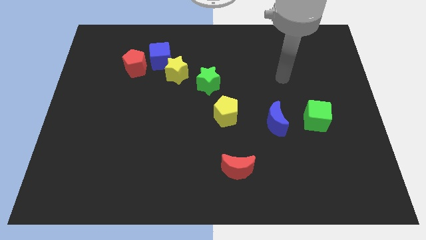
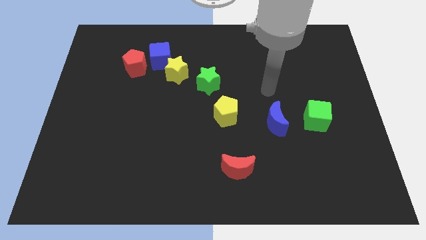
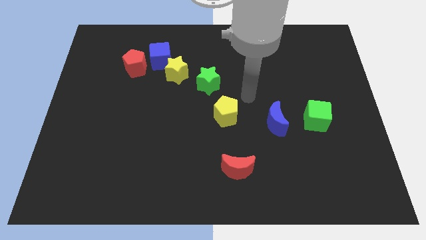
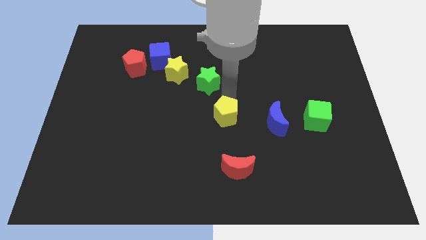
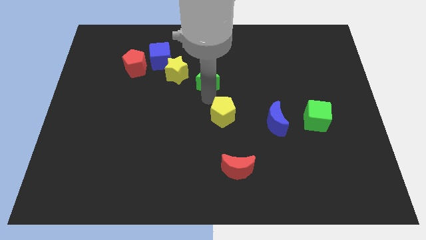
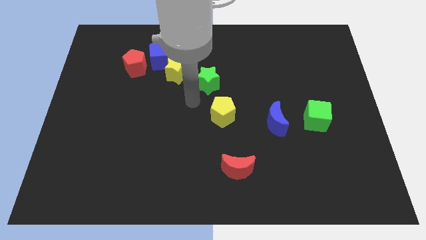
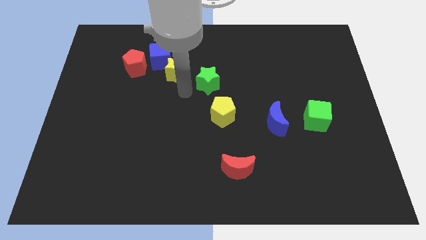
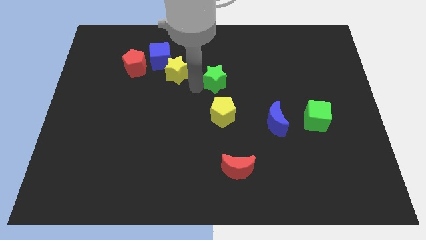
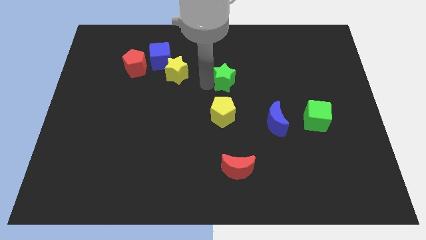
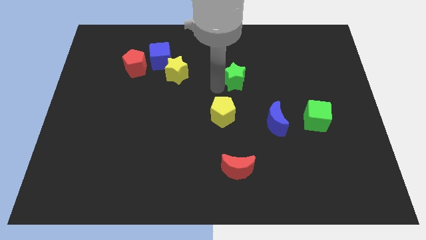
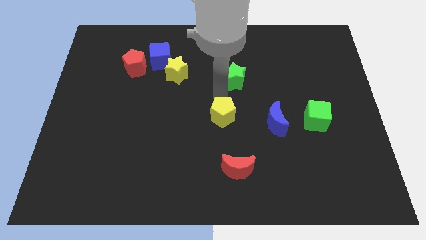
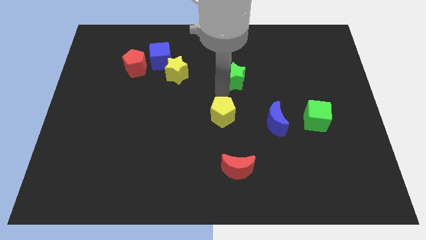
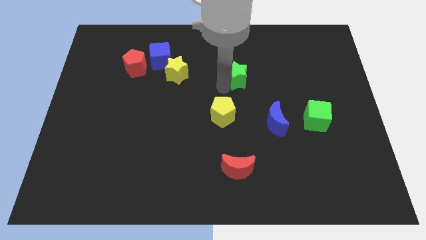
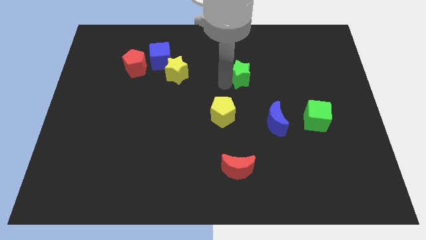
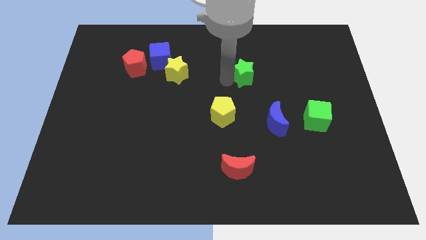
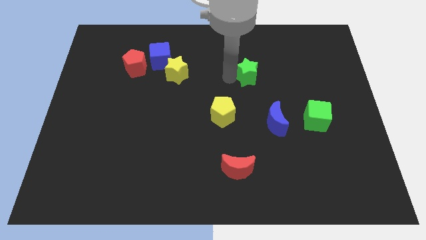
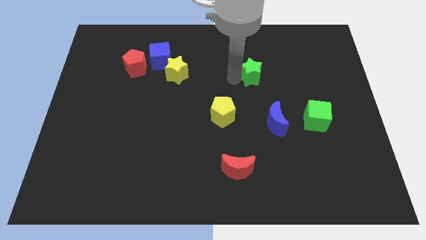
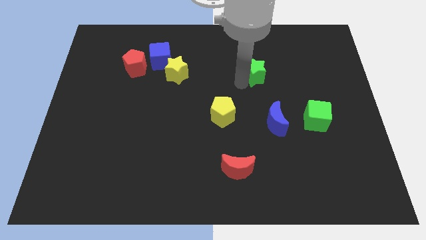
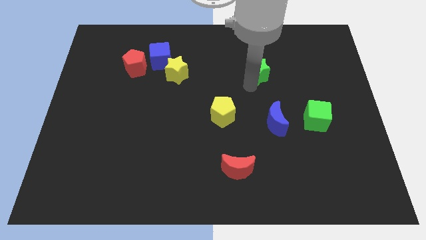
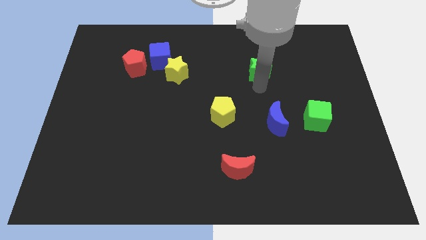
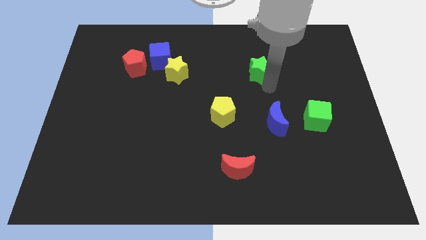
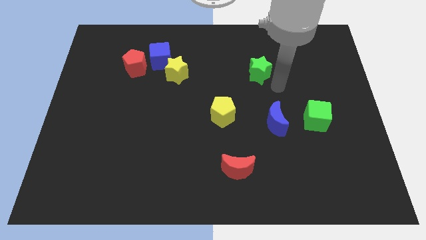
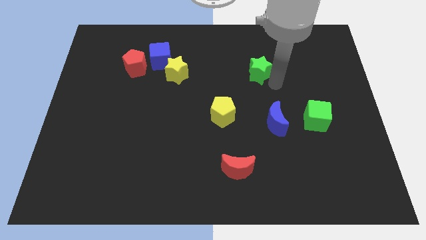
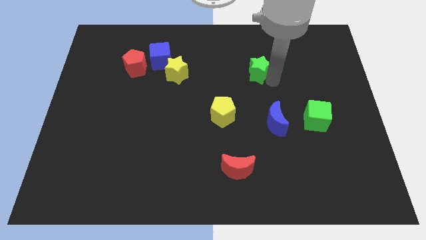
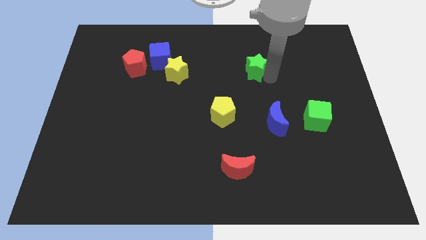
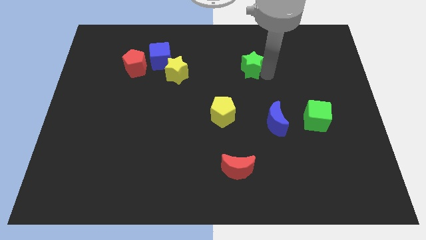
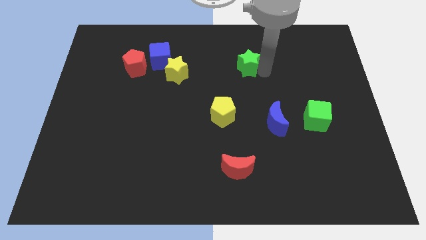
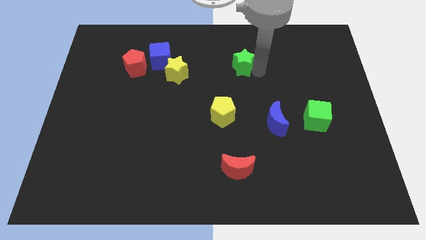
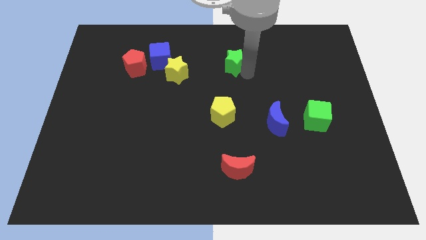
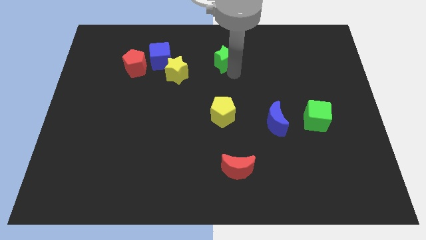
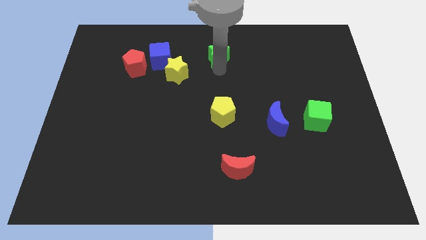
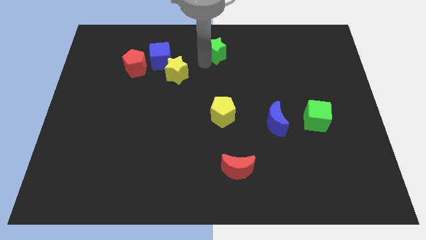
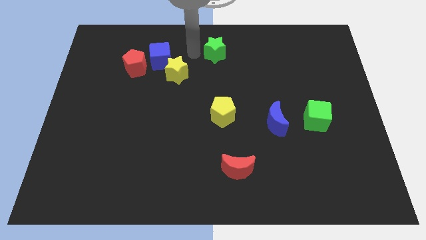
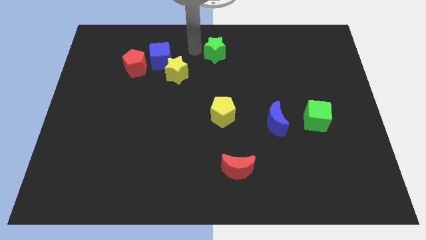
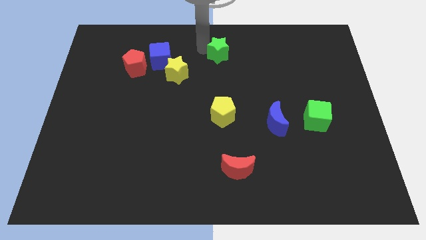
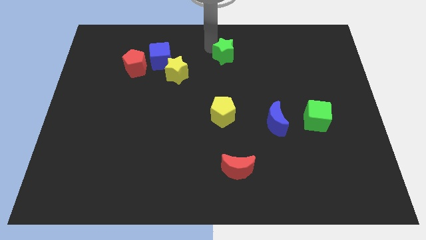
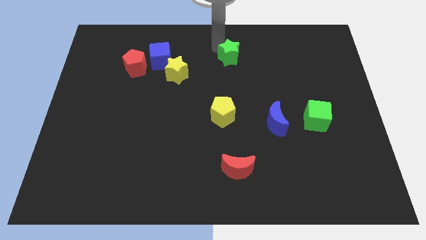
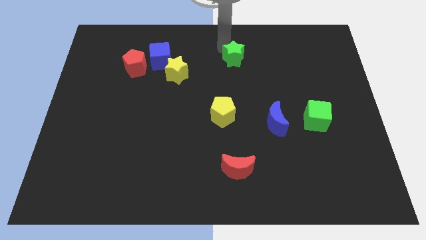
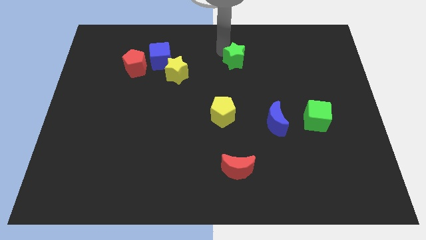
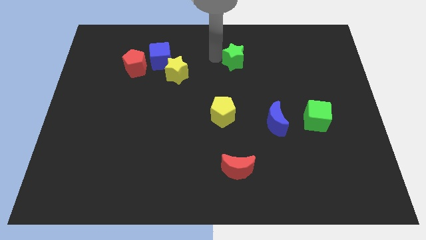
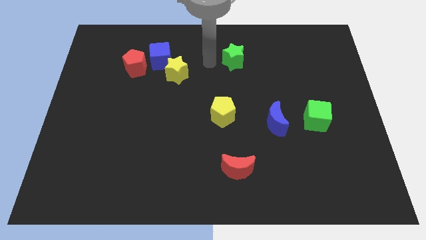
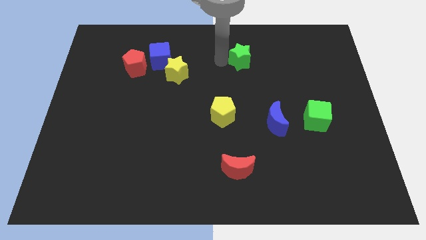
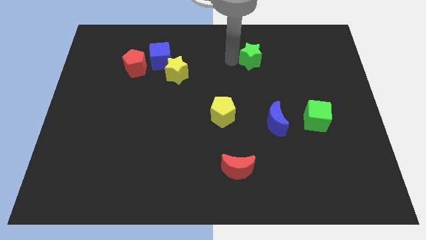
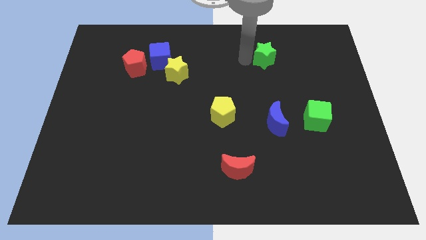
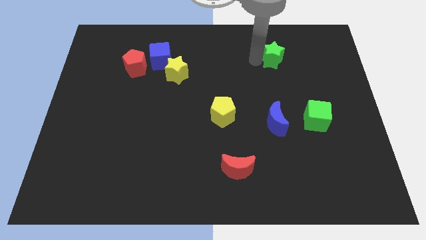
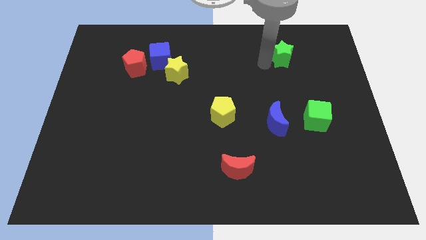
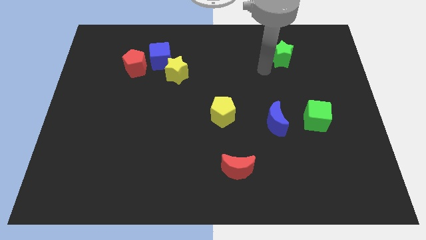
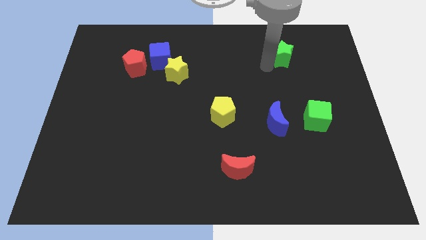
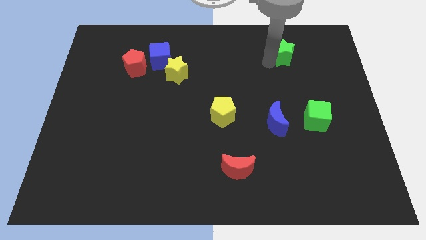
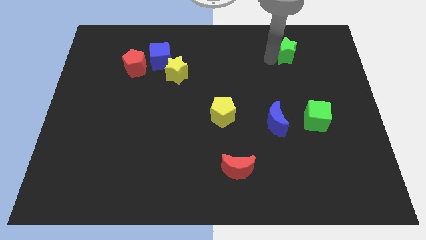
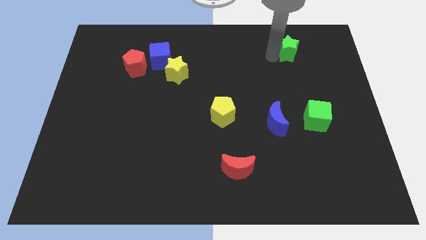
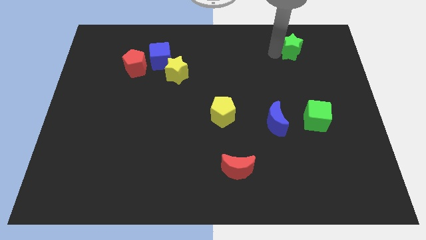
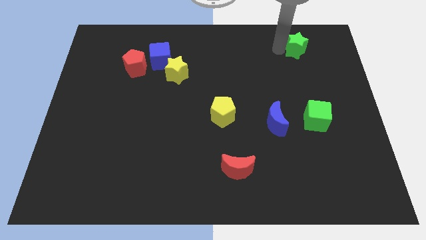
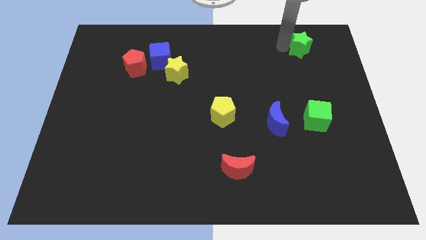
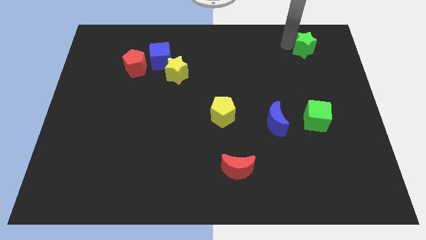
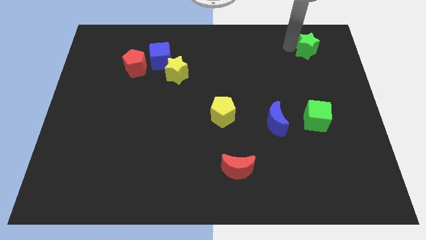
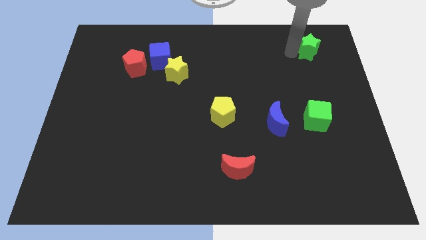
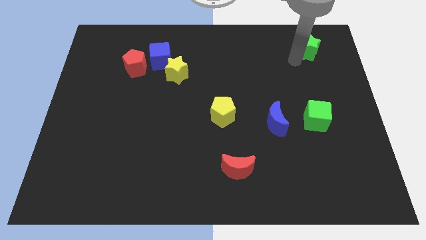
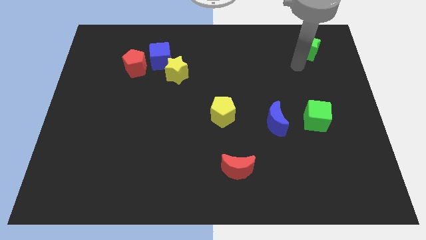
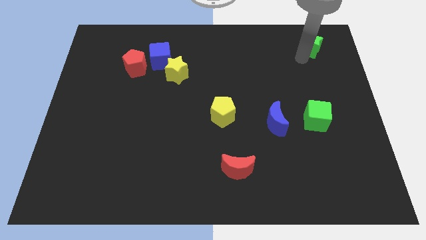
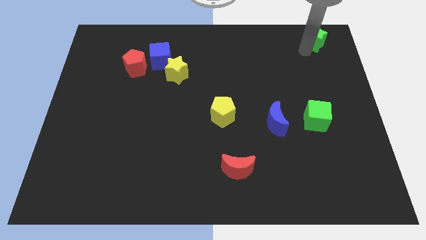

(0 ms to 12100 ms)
push the green star to the top right of the board

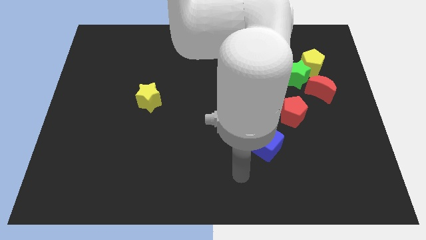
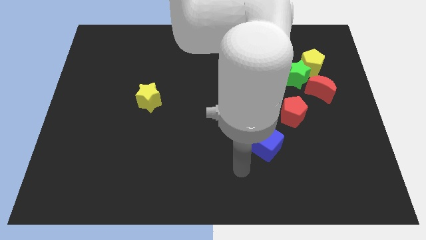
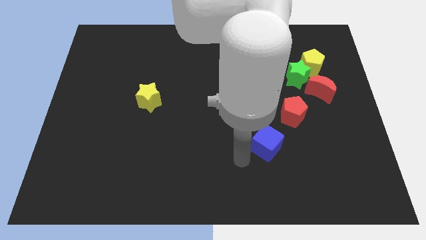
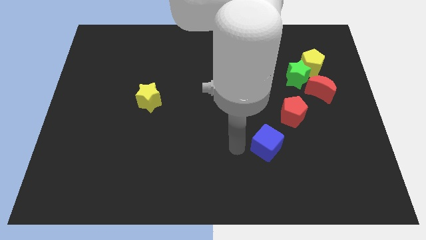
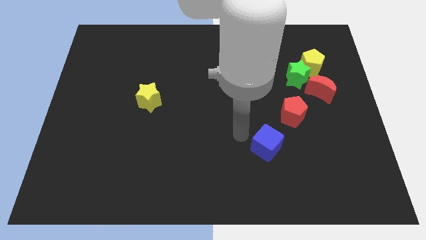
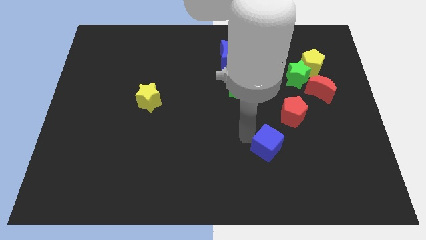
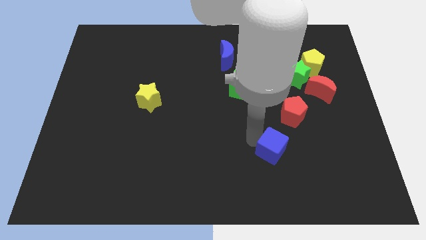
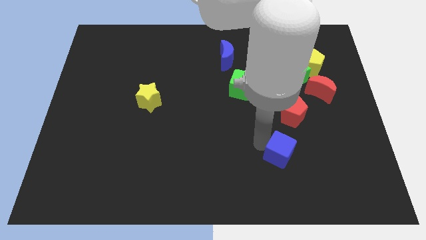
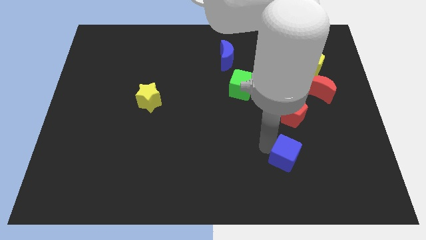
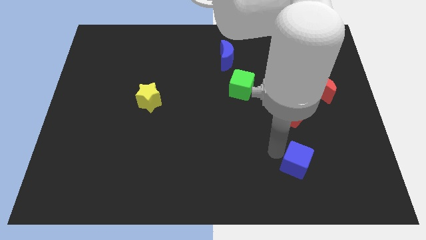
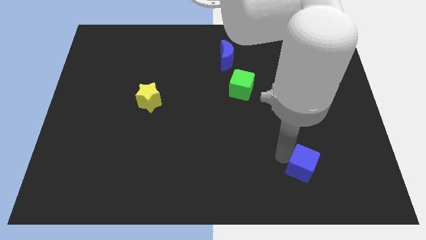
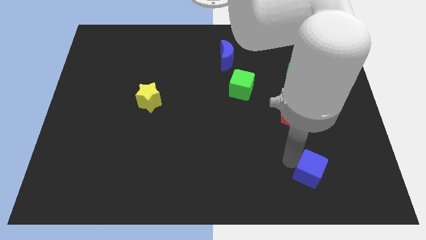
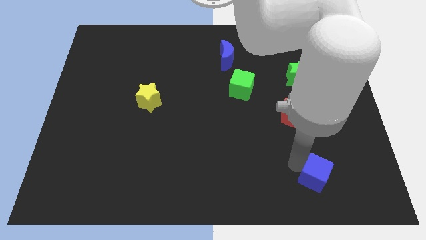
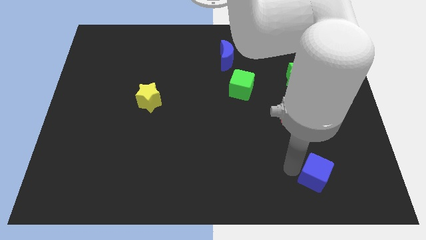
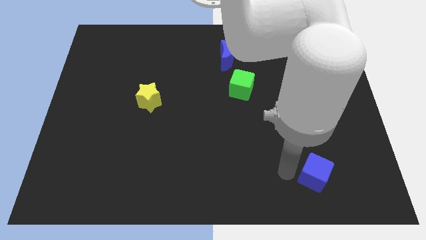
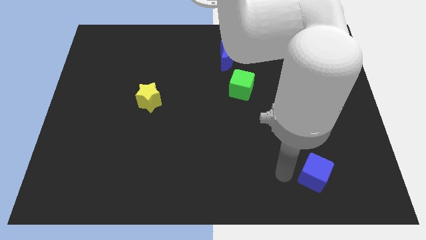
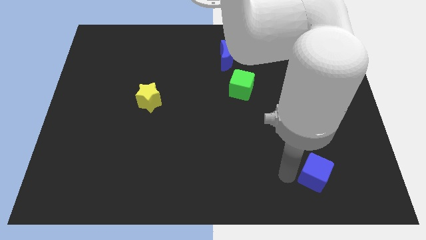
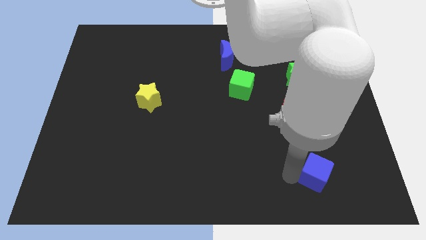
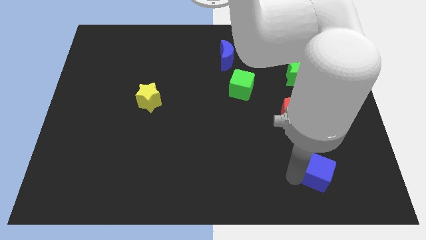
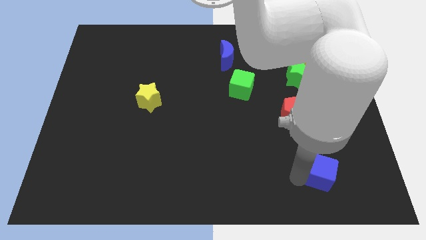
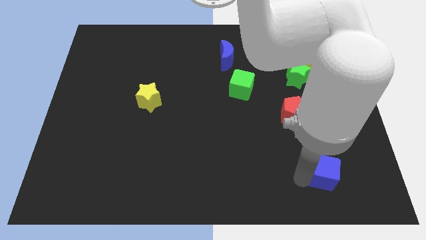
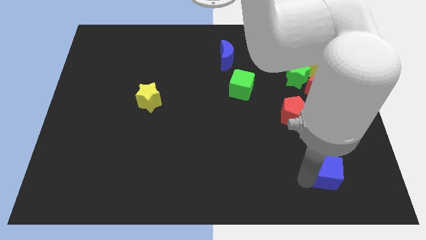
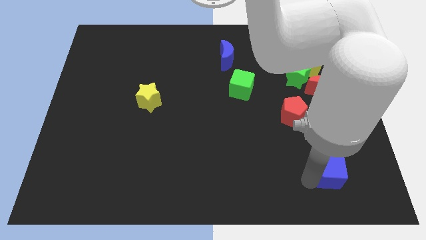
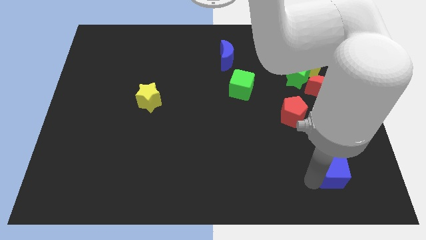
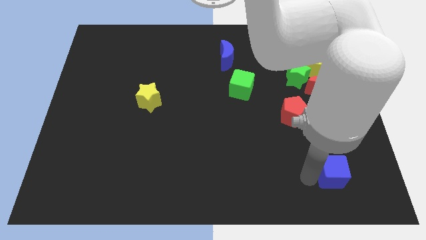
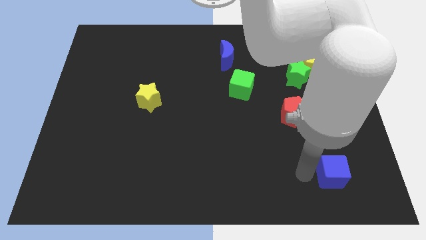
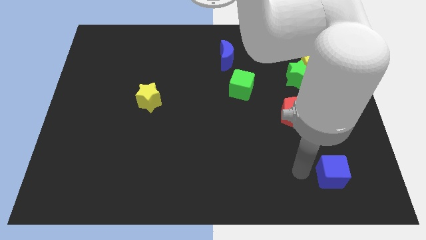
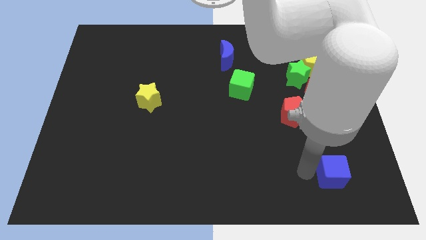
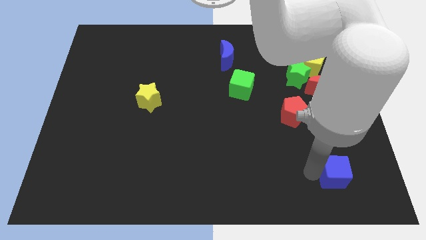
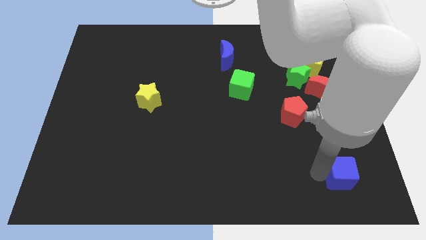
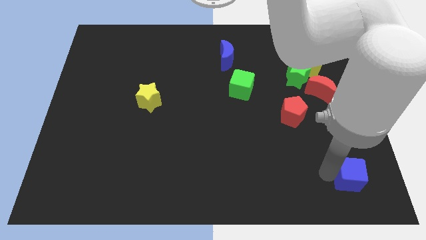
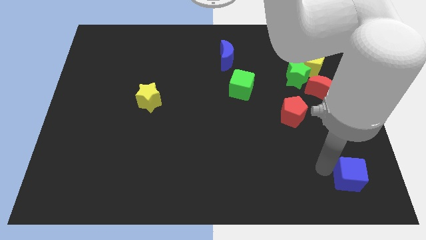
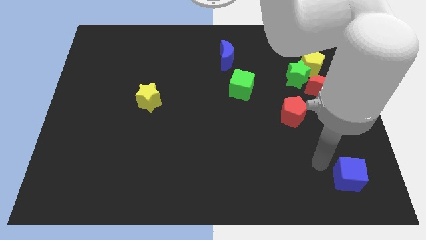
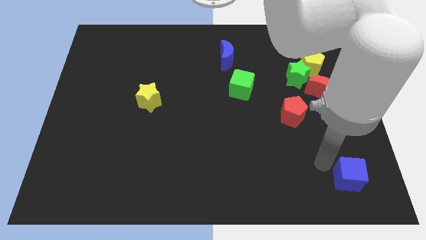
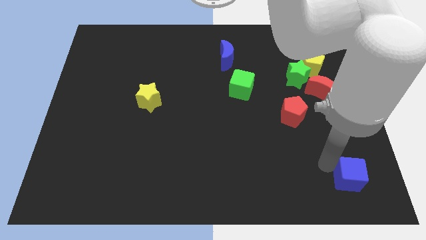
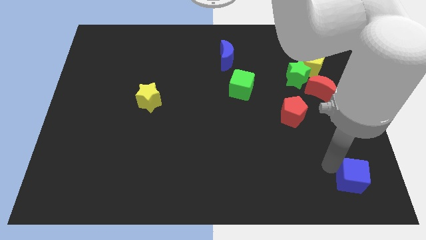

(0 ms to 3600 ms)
move the blue cube to the bottom right
